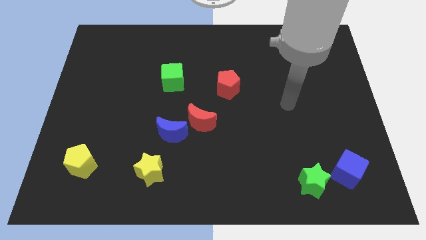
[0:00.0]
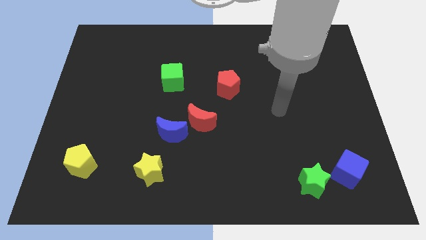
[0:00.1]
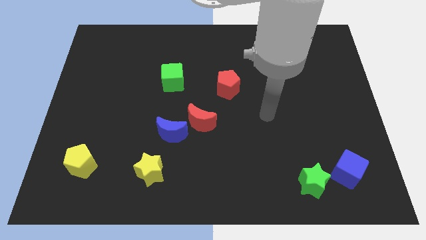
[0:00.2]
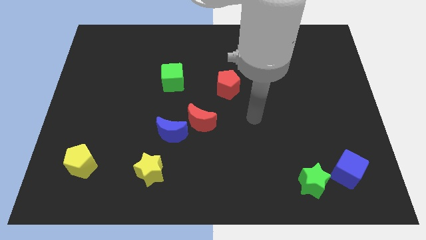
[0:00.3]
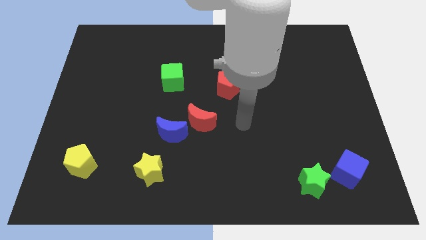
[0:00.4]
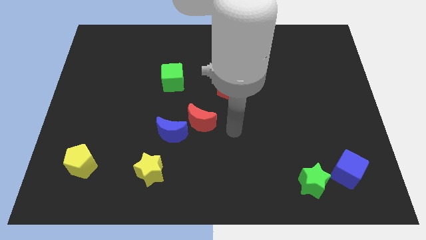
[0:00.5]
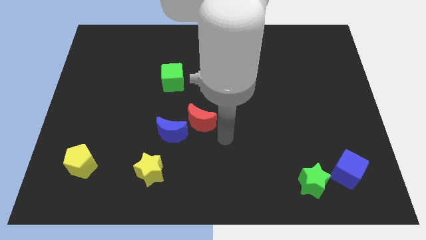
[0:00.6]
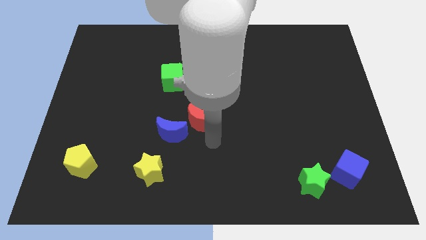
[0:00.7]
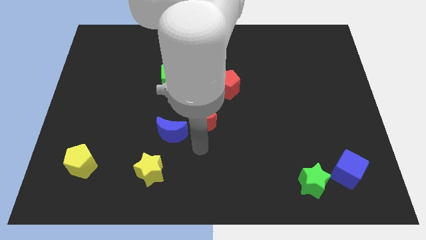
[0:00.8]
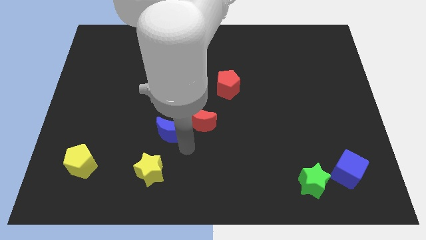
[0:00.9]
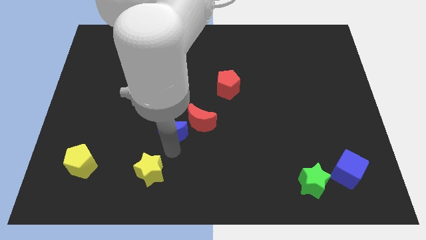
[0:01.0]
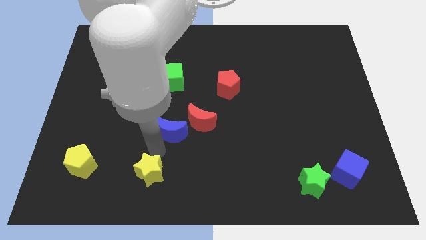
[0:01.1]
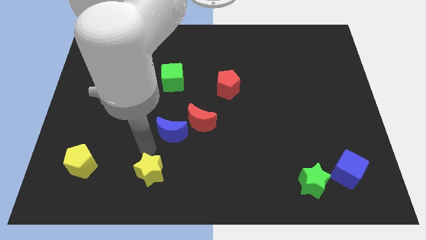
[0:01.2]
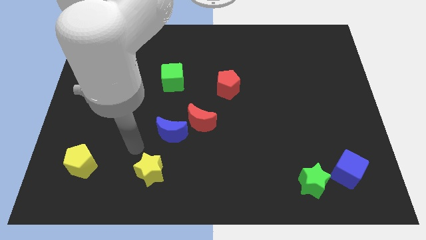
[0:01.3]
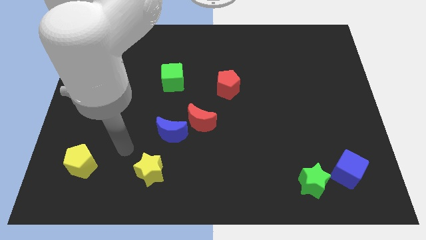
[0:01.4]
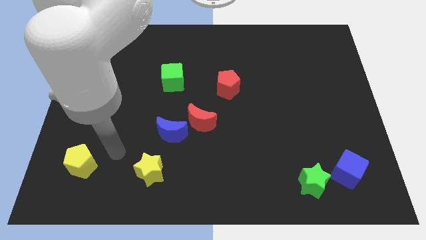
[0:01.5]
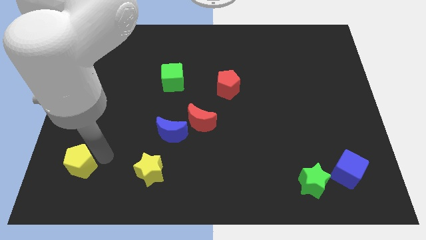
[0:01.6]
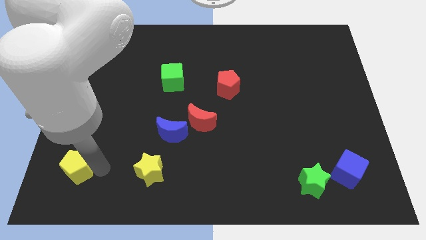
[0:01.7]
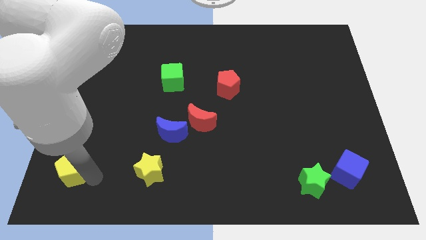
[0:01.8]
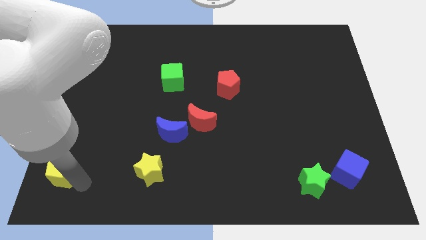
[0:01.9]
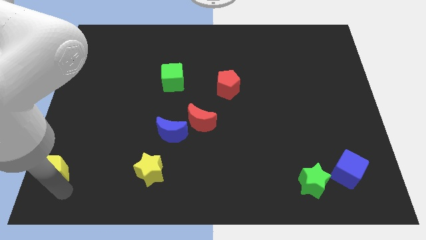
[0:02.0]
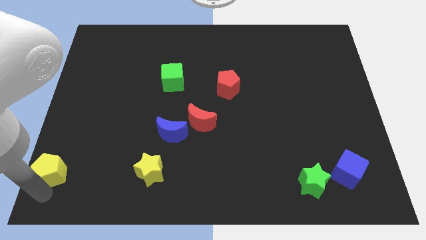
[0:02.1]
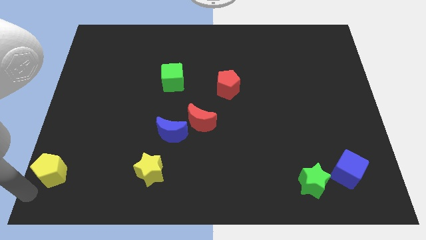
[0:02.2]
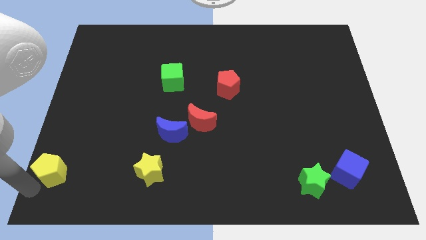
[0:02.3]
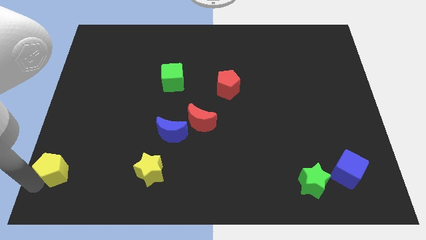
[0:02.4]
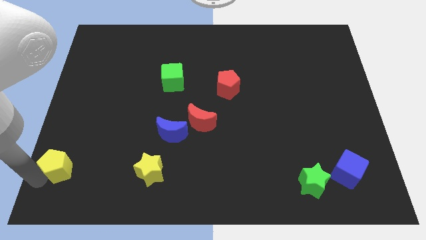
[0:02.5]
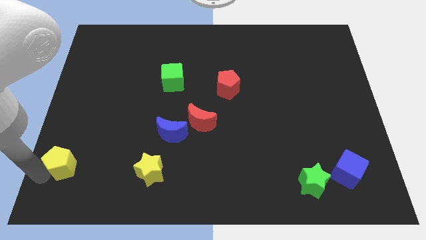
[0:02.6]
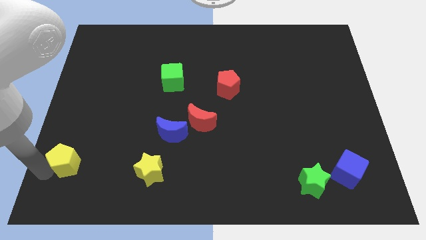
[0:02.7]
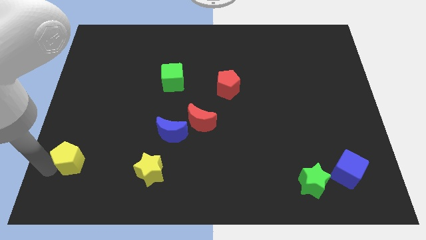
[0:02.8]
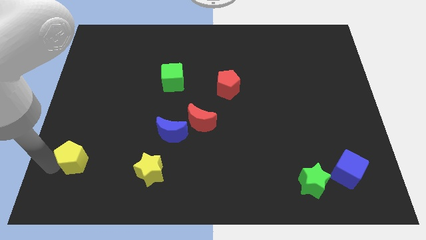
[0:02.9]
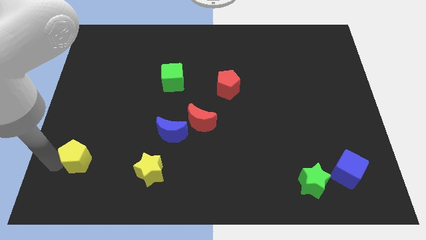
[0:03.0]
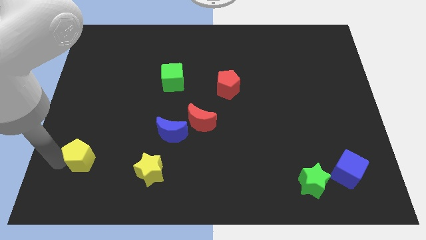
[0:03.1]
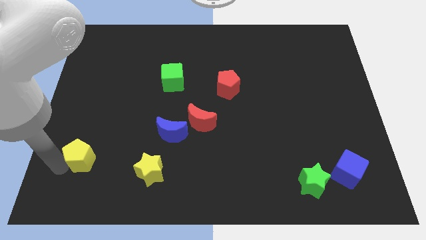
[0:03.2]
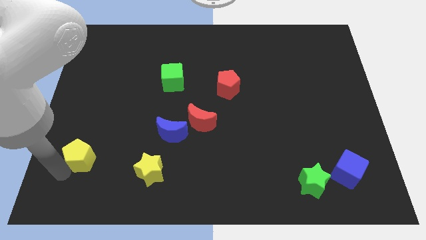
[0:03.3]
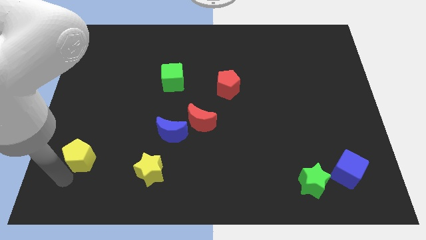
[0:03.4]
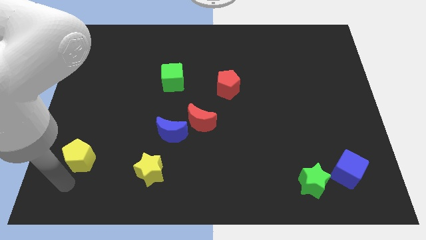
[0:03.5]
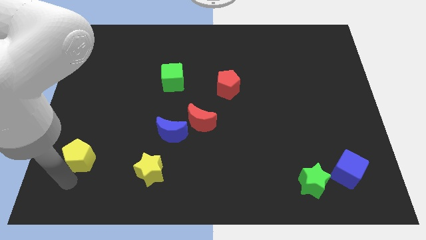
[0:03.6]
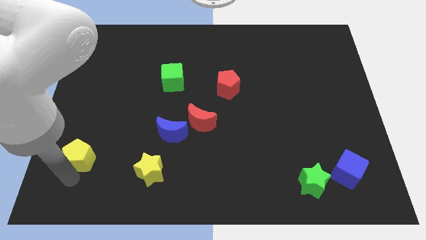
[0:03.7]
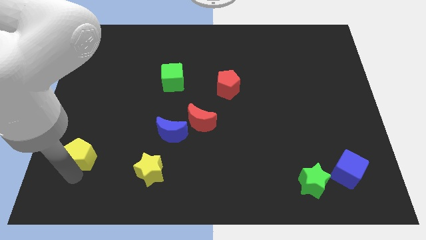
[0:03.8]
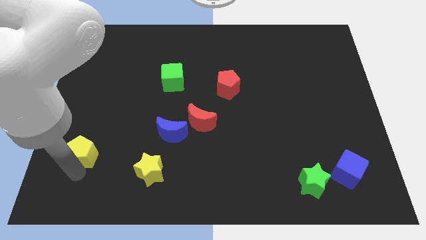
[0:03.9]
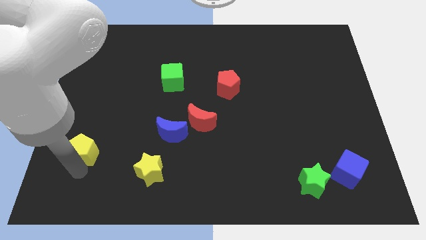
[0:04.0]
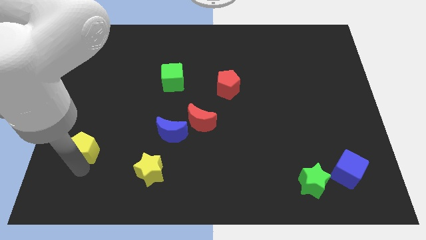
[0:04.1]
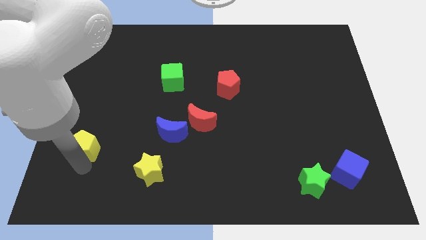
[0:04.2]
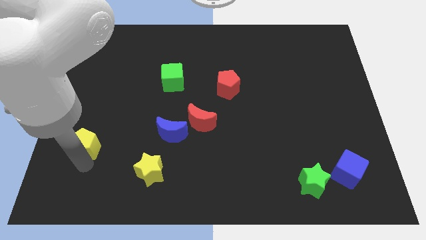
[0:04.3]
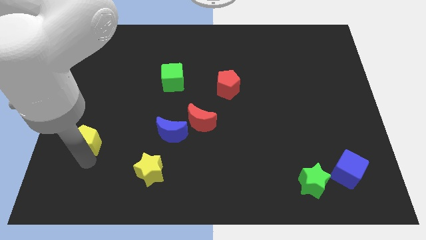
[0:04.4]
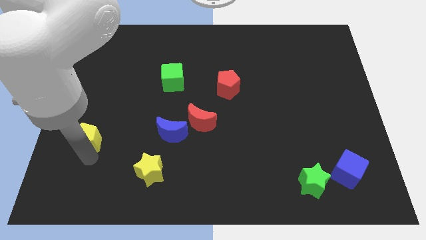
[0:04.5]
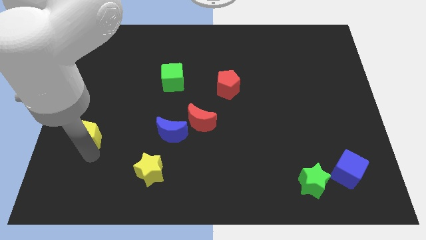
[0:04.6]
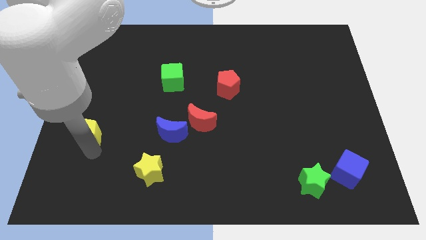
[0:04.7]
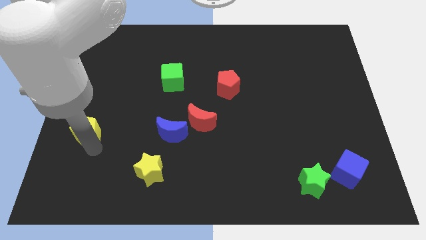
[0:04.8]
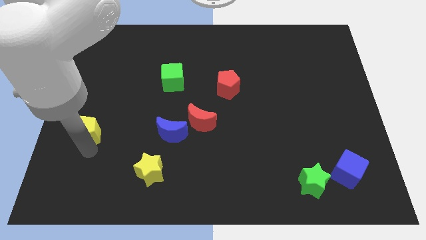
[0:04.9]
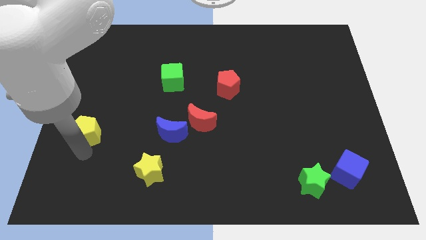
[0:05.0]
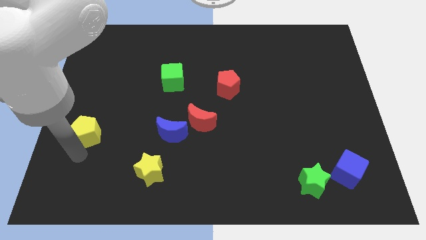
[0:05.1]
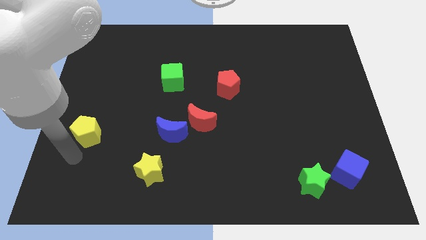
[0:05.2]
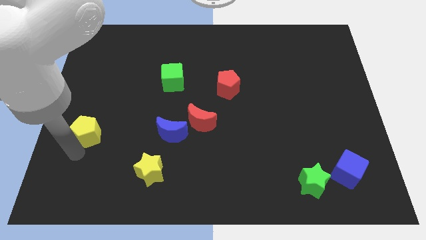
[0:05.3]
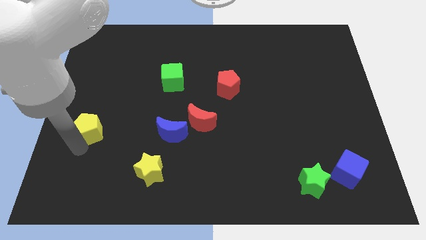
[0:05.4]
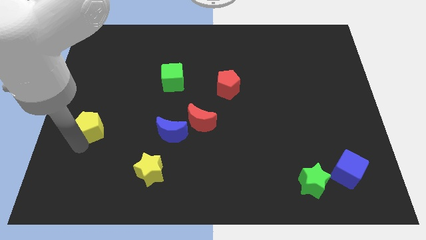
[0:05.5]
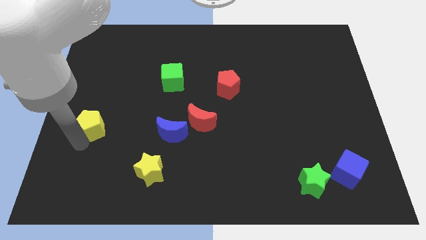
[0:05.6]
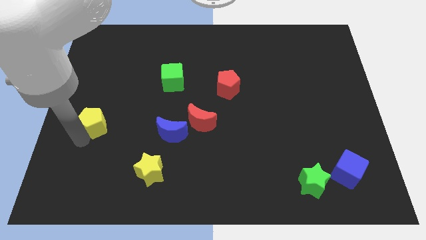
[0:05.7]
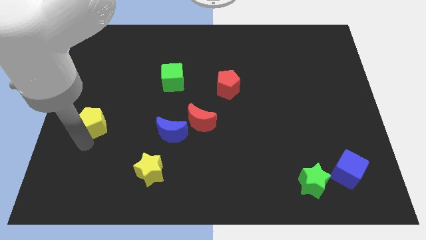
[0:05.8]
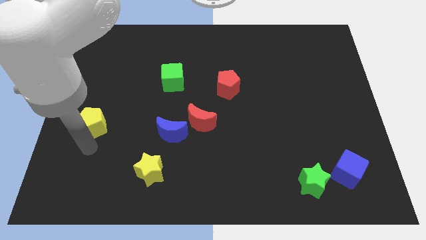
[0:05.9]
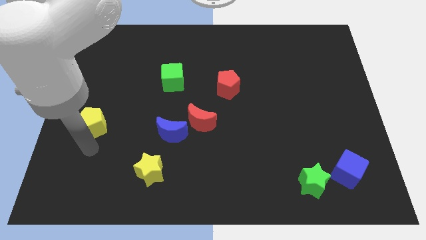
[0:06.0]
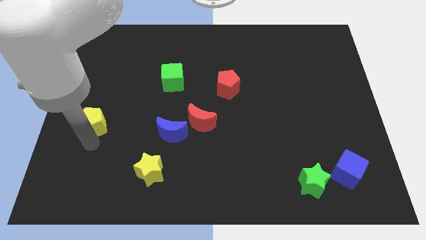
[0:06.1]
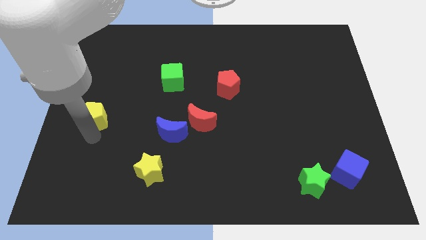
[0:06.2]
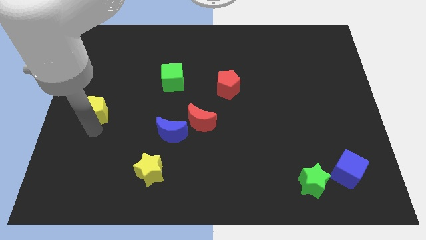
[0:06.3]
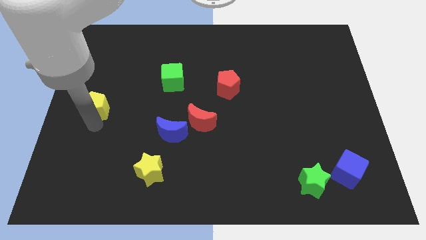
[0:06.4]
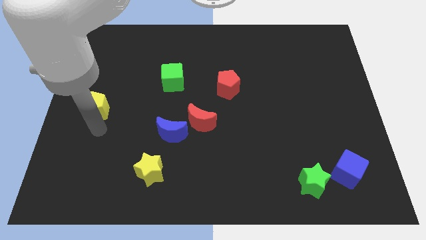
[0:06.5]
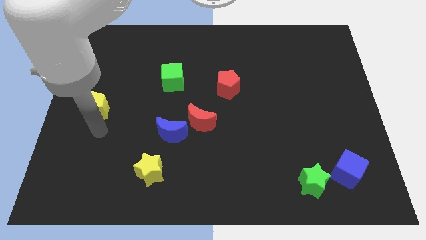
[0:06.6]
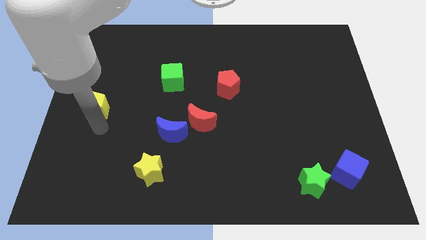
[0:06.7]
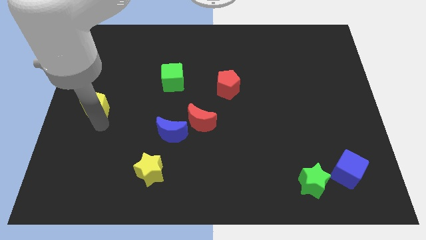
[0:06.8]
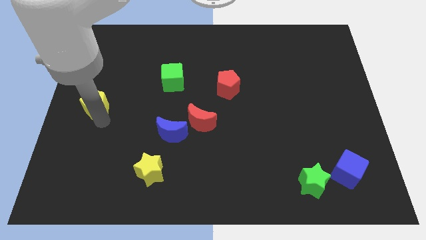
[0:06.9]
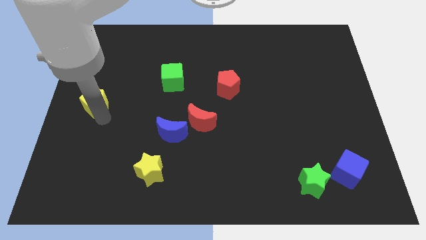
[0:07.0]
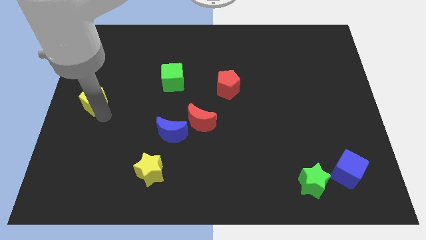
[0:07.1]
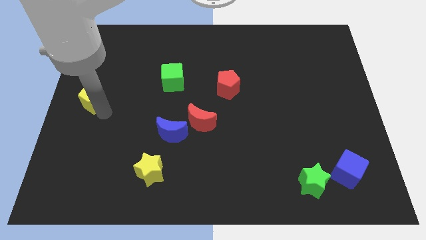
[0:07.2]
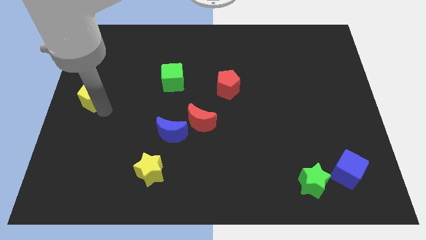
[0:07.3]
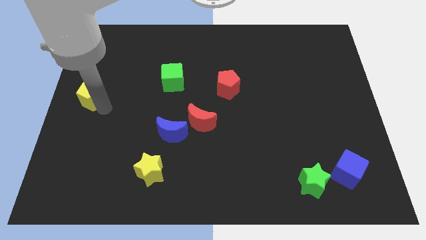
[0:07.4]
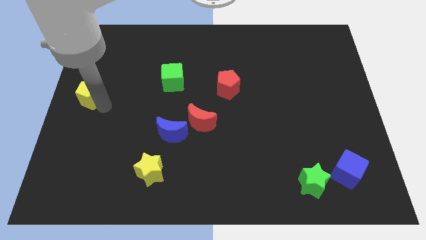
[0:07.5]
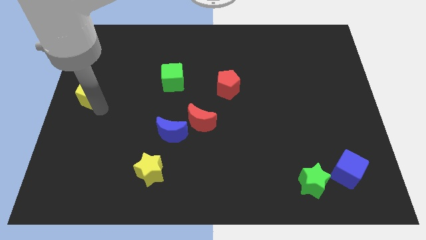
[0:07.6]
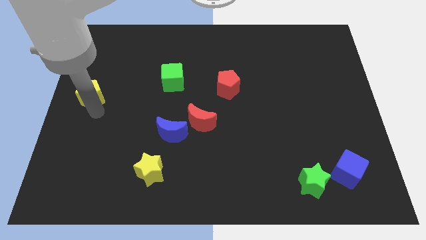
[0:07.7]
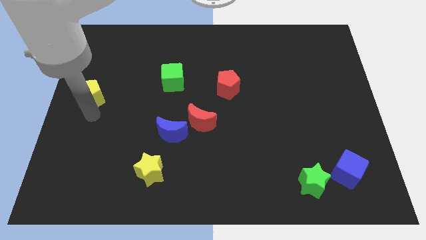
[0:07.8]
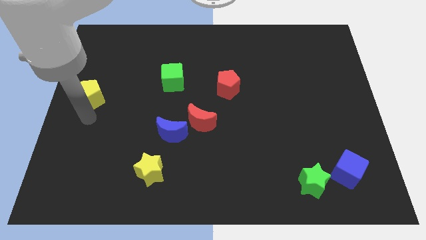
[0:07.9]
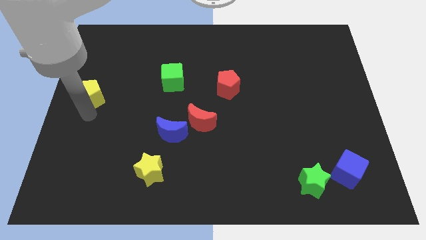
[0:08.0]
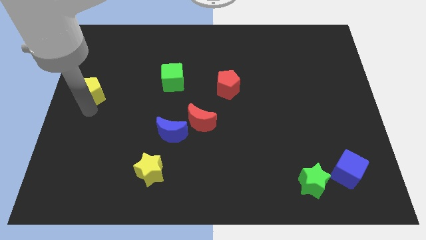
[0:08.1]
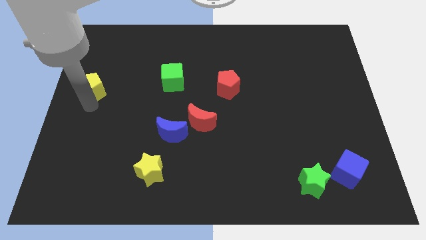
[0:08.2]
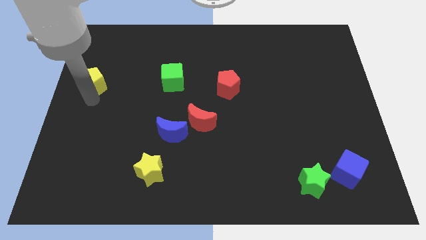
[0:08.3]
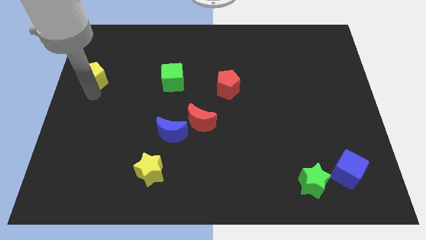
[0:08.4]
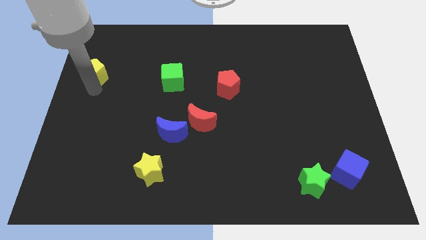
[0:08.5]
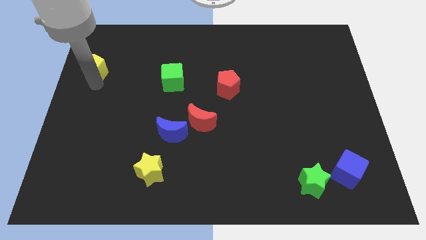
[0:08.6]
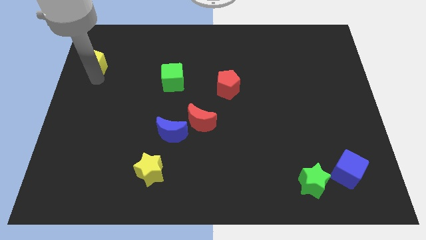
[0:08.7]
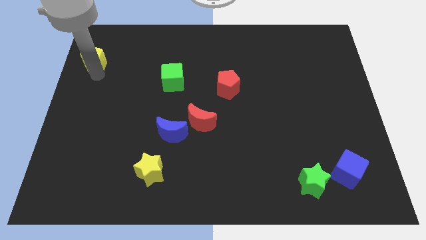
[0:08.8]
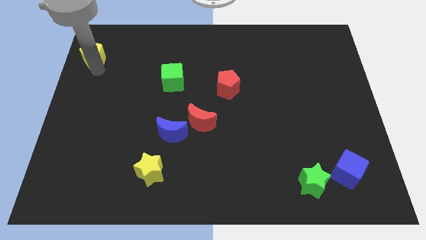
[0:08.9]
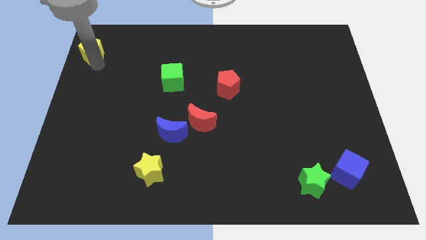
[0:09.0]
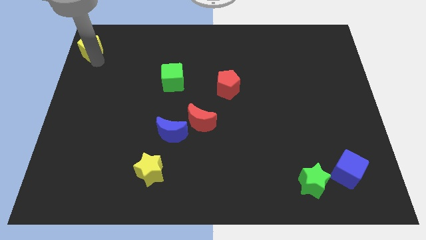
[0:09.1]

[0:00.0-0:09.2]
put the yellow pentagon to the upper left corner
